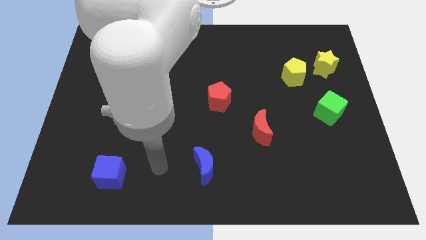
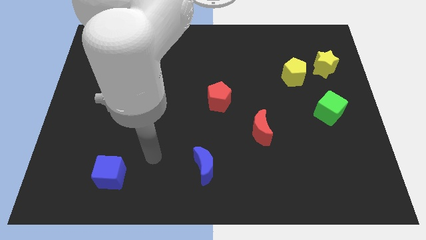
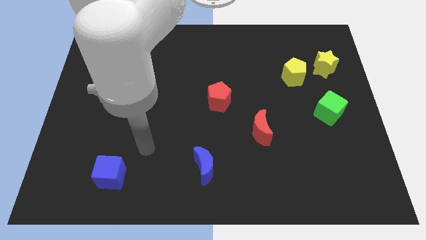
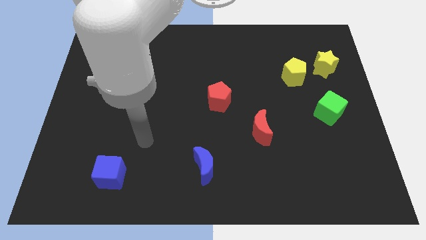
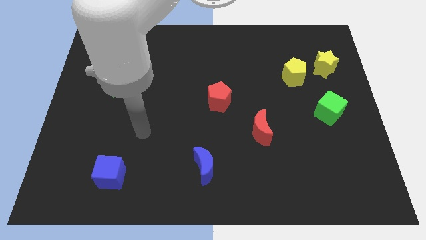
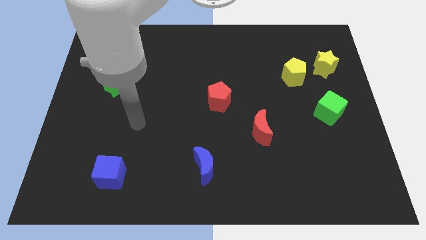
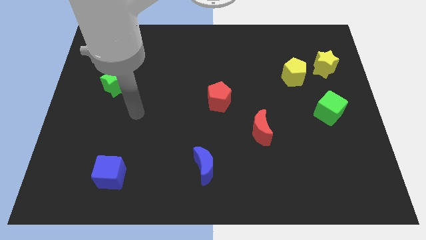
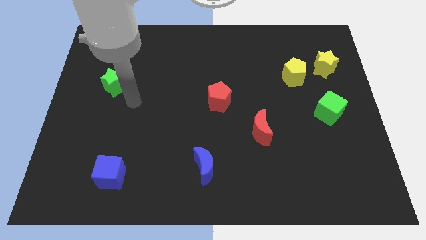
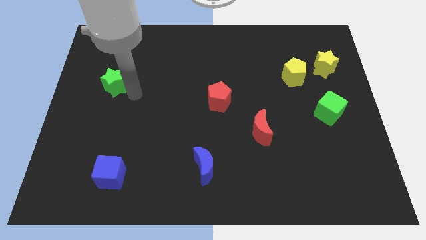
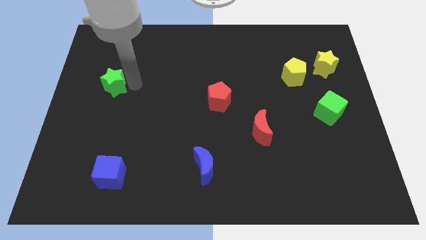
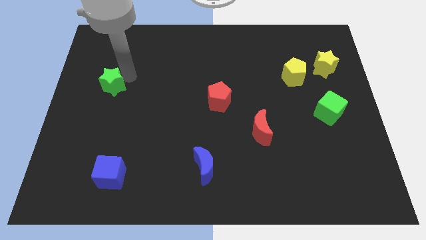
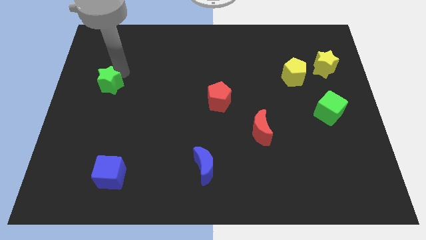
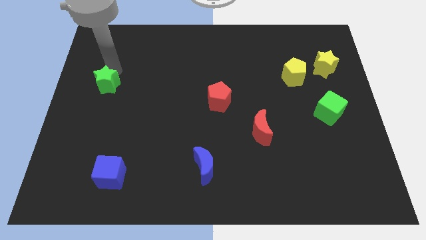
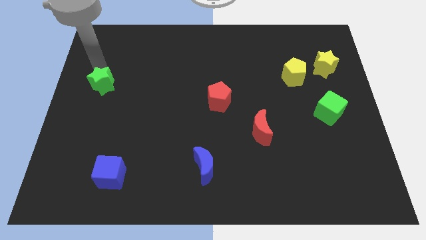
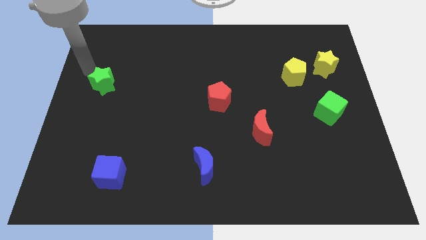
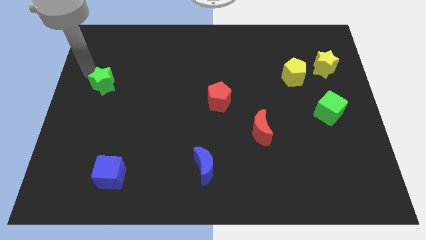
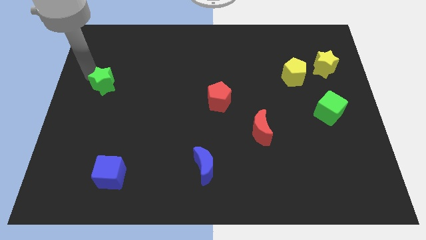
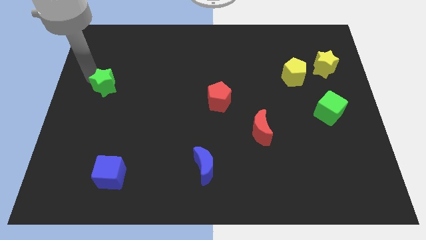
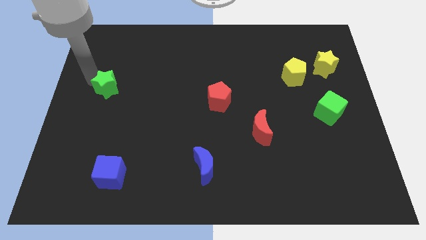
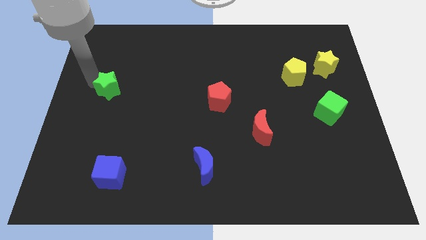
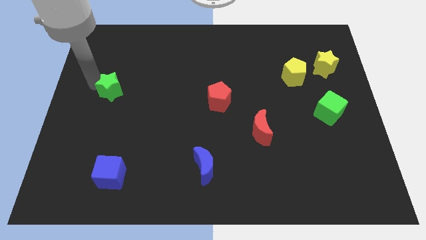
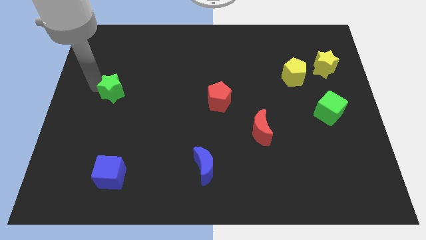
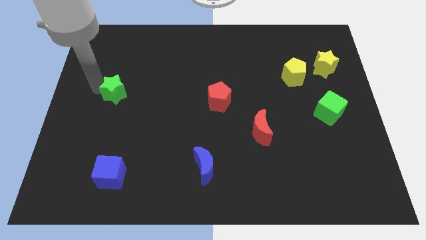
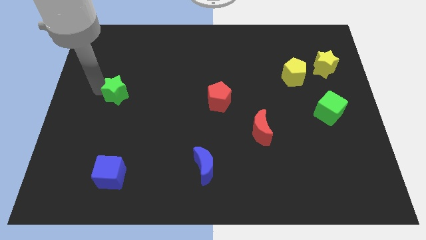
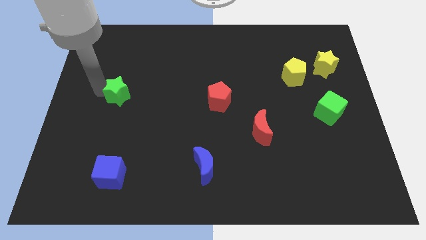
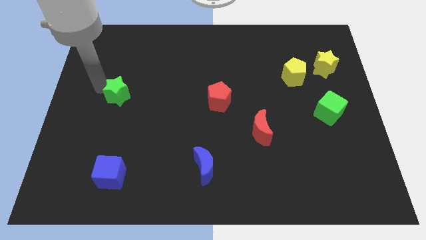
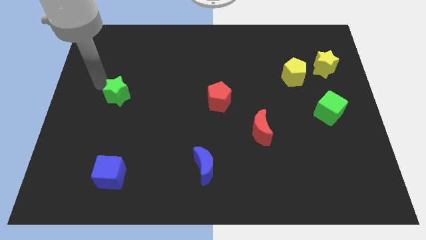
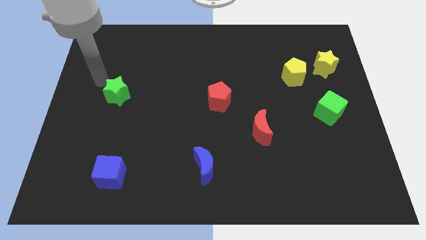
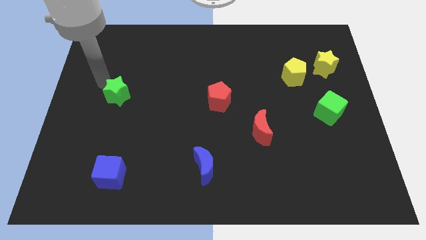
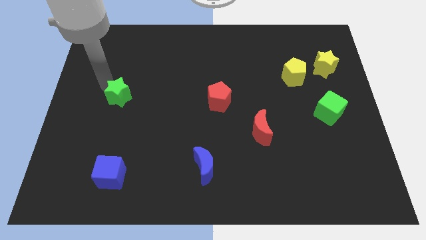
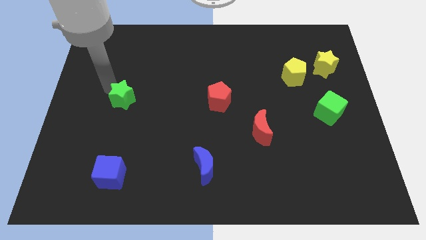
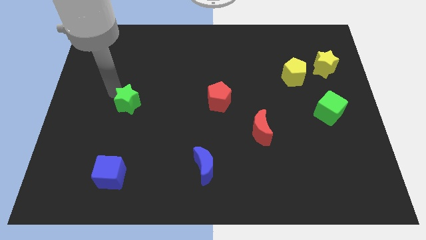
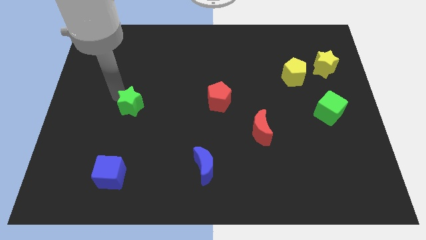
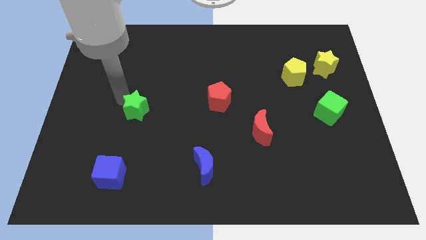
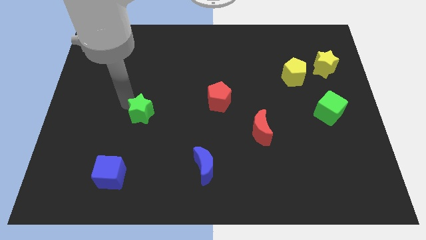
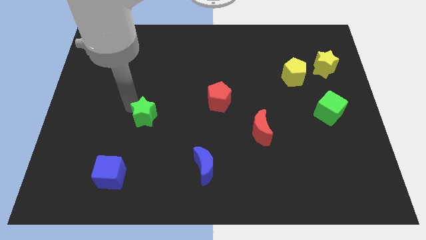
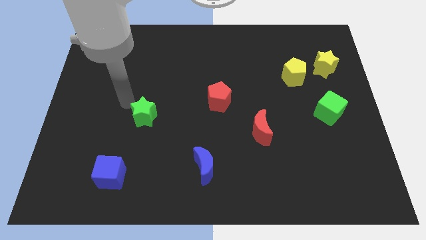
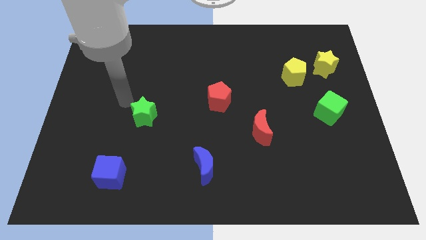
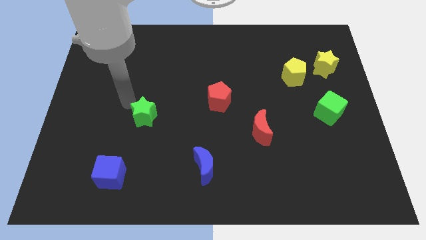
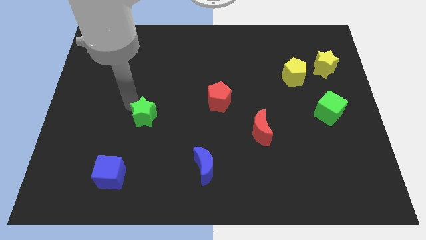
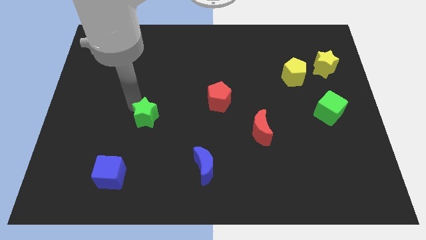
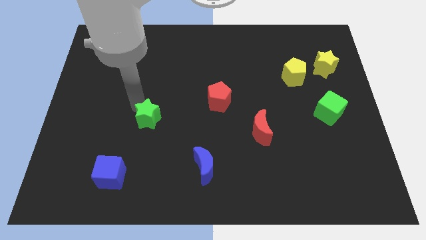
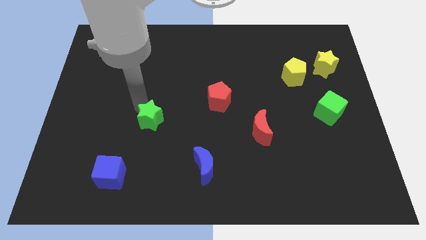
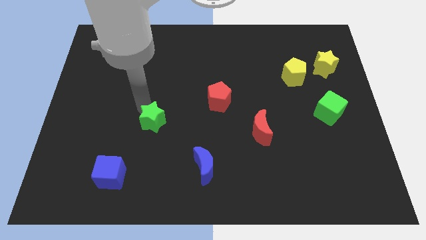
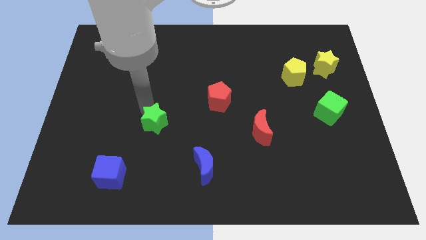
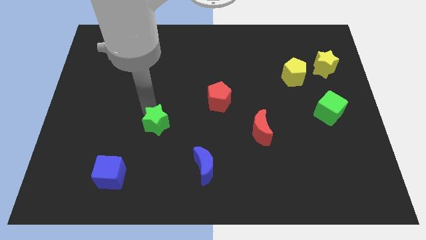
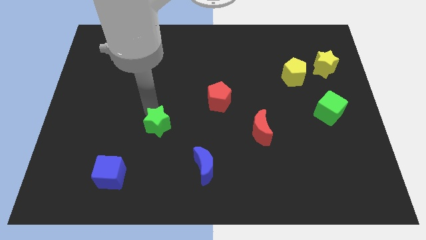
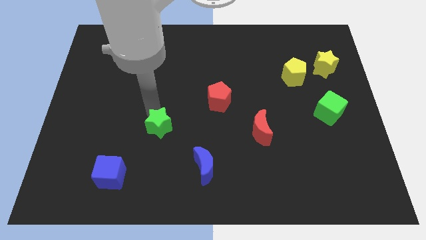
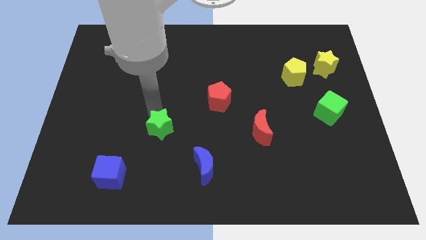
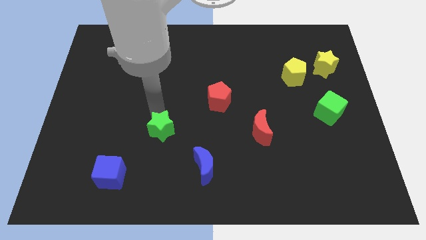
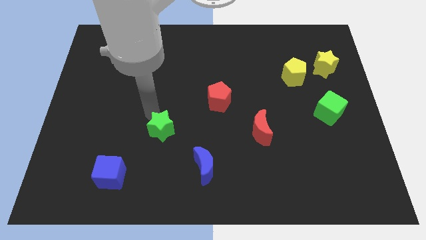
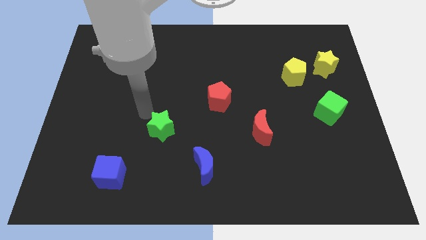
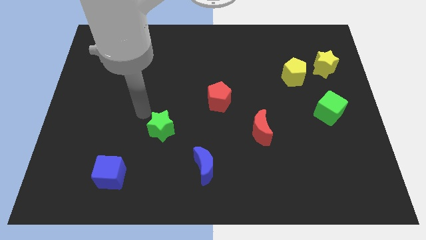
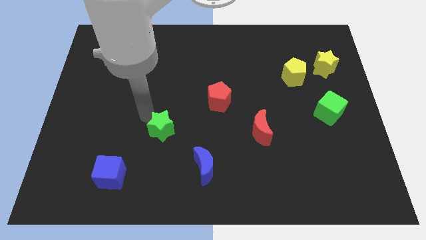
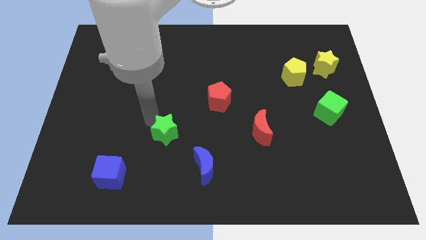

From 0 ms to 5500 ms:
slide the green star to the top left of the blue moon

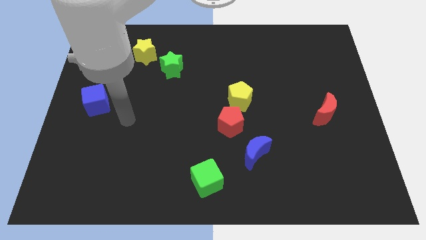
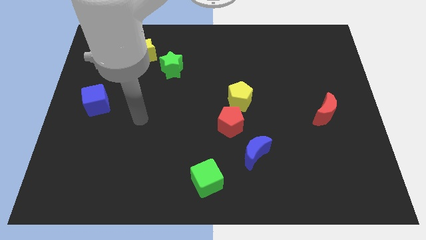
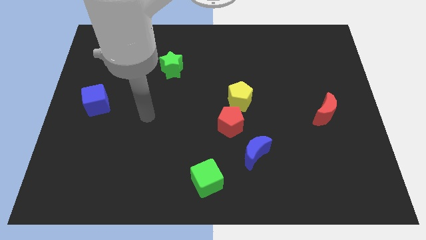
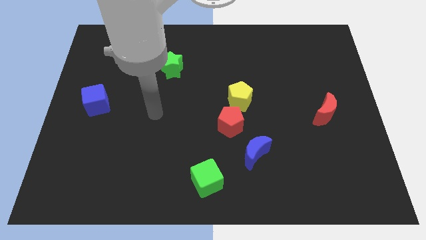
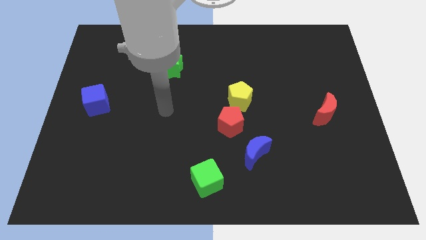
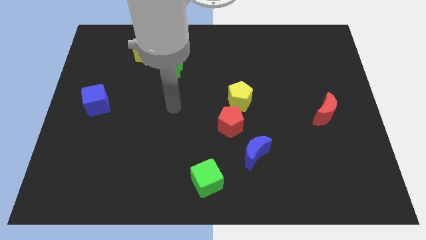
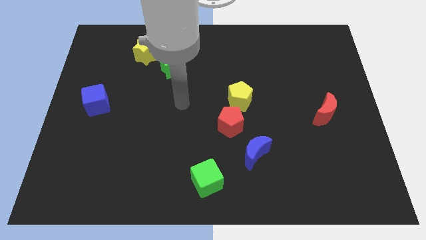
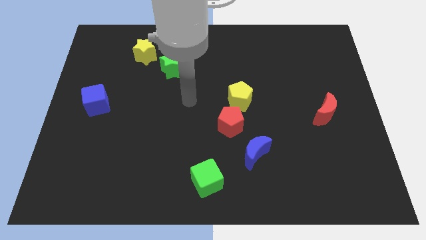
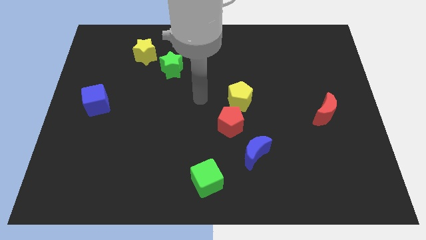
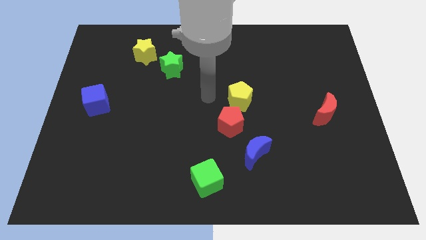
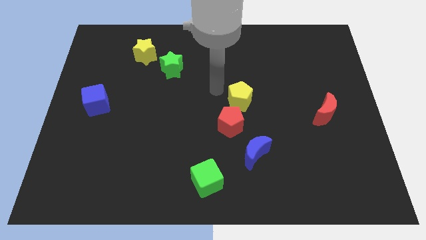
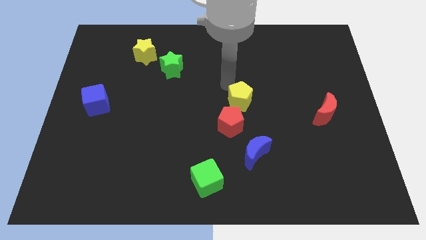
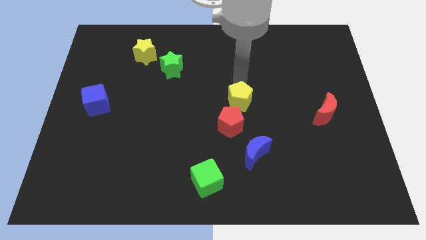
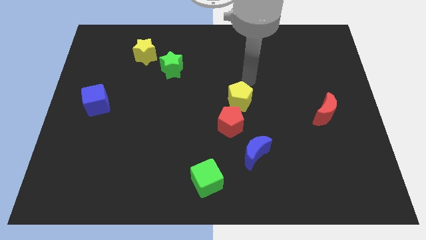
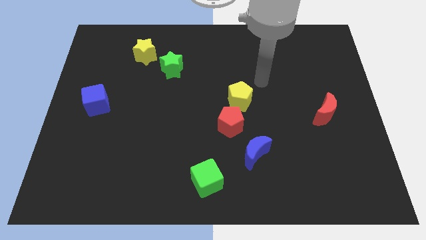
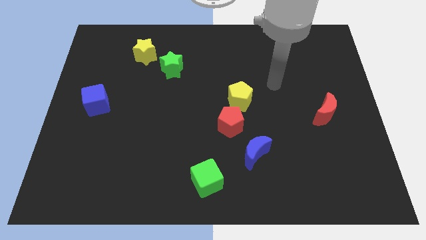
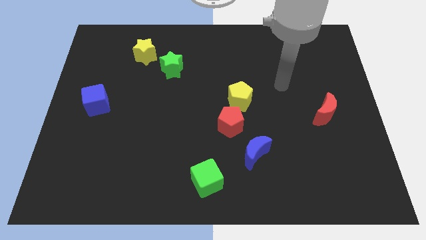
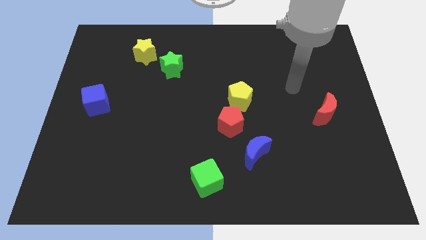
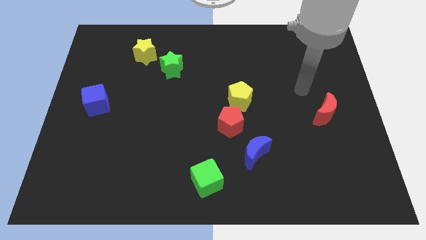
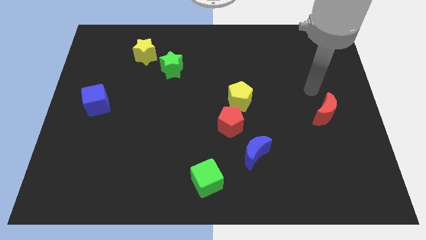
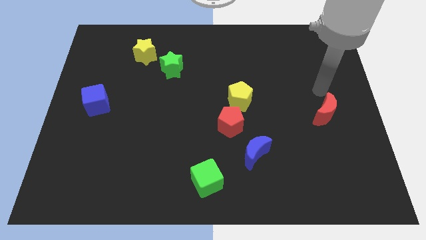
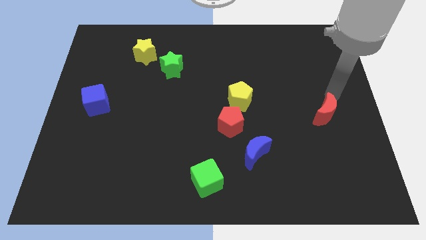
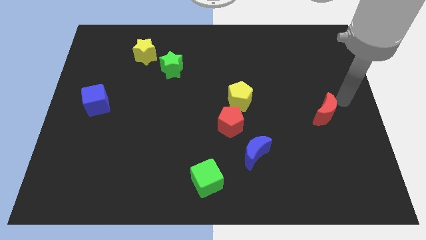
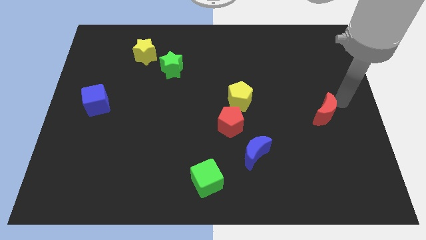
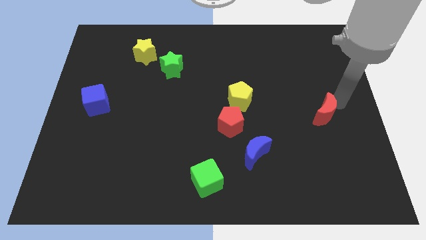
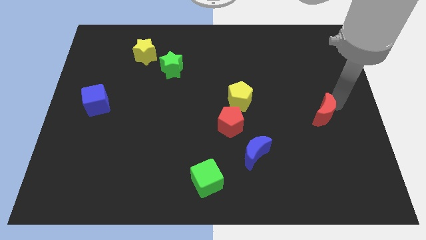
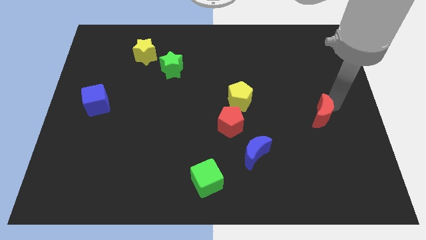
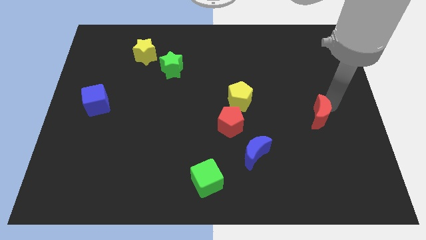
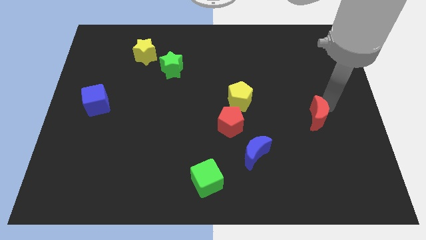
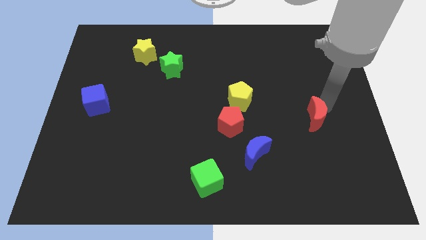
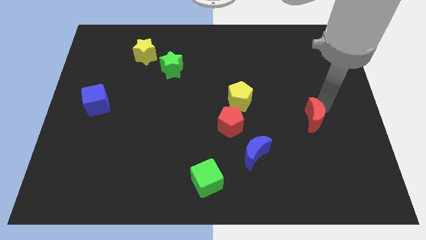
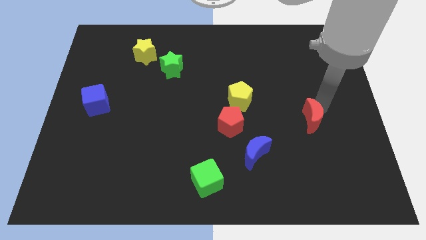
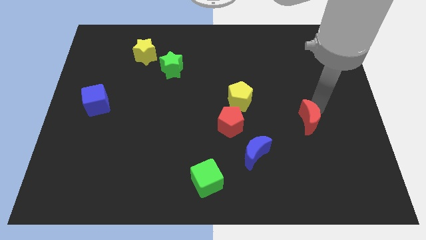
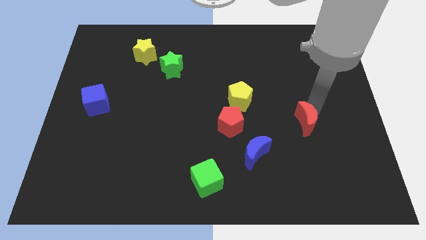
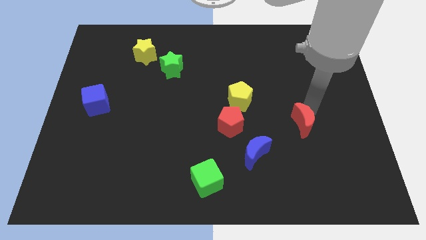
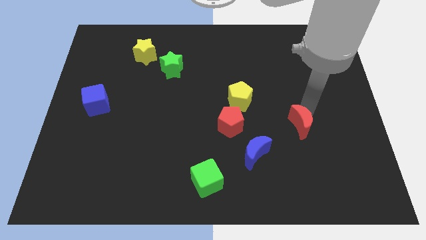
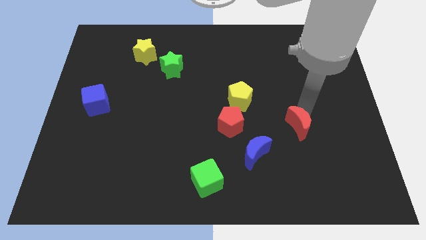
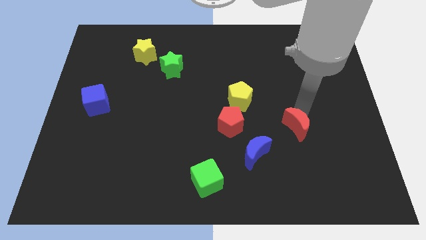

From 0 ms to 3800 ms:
slide the red moon to the top right side of the blue moon
